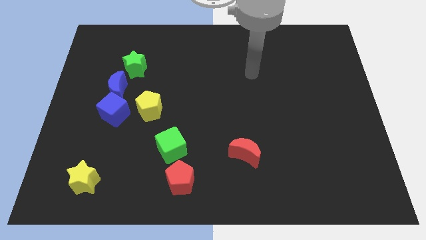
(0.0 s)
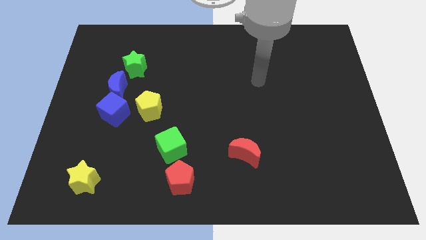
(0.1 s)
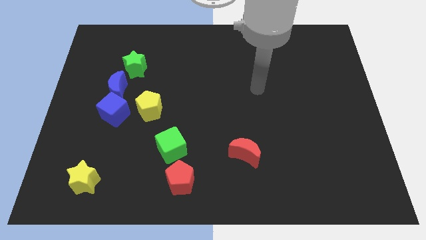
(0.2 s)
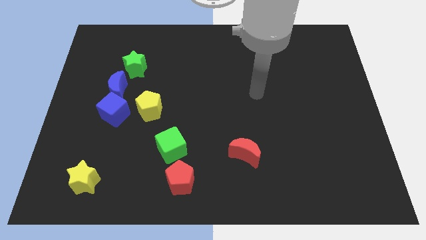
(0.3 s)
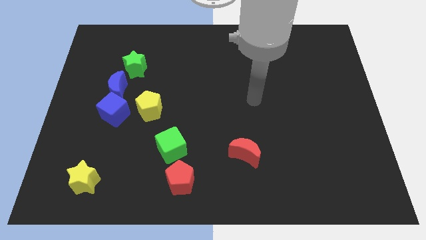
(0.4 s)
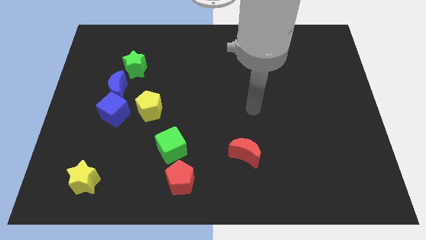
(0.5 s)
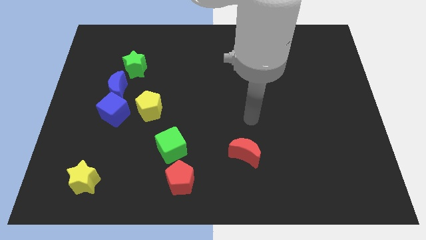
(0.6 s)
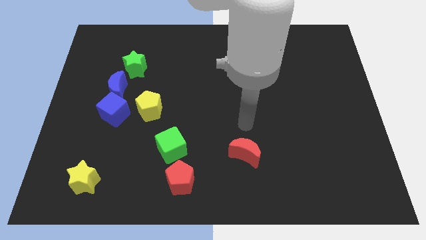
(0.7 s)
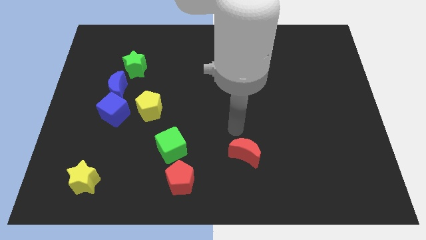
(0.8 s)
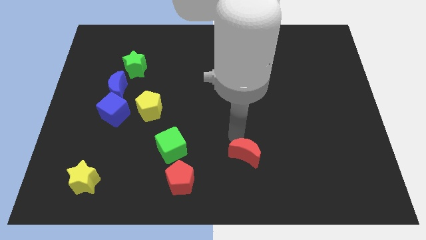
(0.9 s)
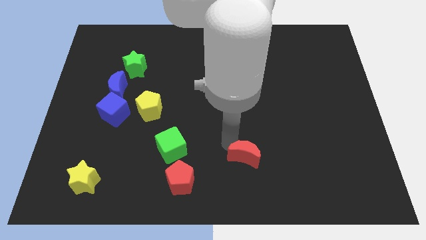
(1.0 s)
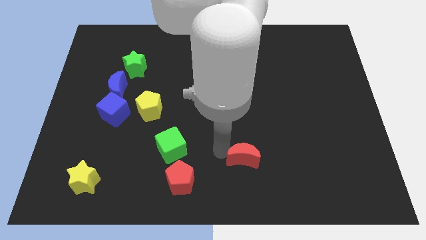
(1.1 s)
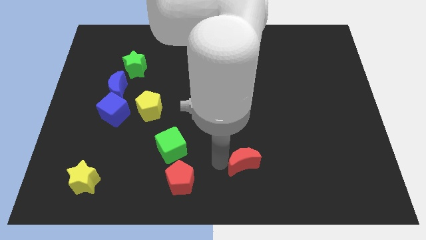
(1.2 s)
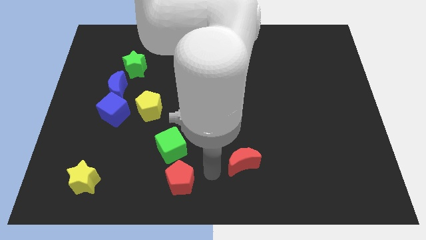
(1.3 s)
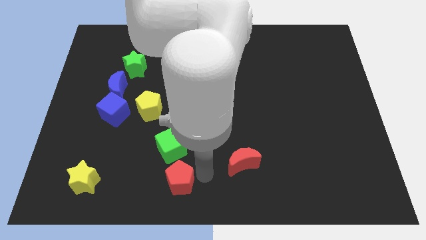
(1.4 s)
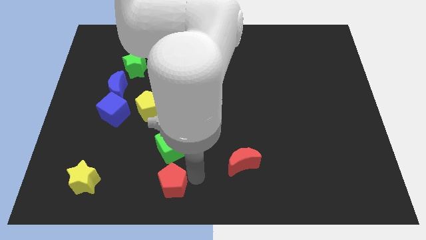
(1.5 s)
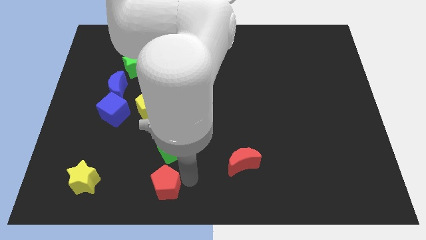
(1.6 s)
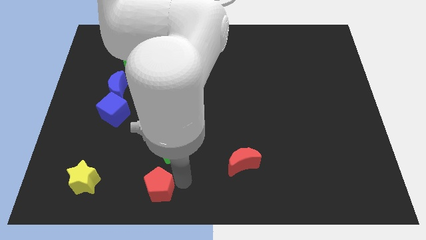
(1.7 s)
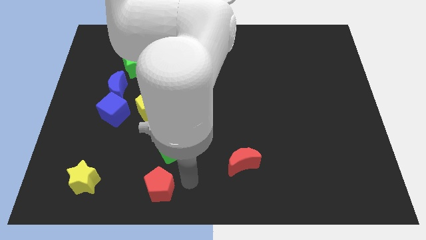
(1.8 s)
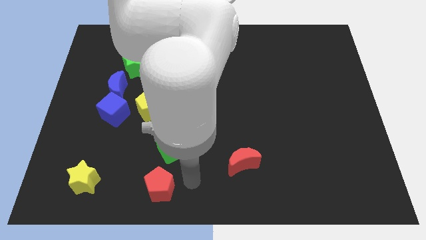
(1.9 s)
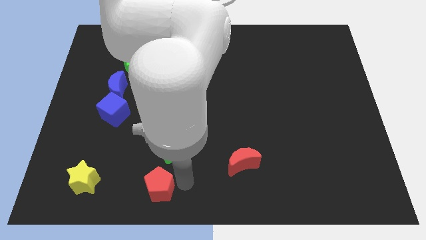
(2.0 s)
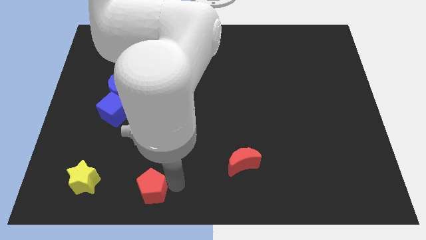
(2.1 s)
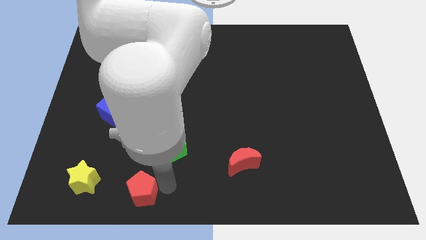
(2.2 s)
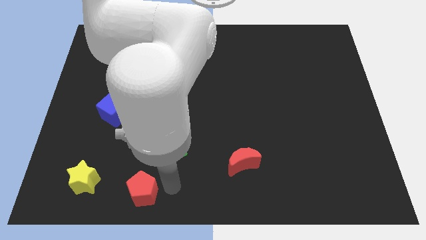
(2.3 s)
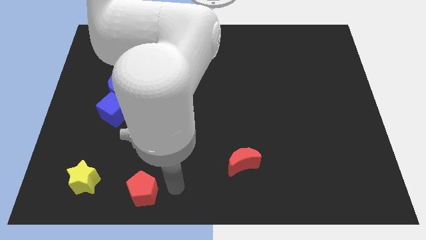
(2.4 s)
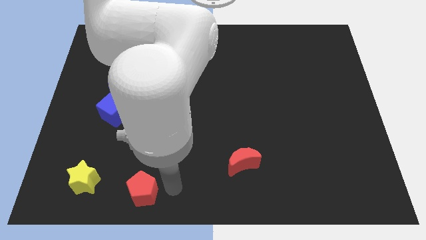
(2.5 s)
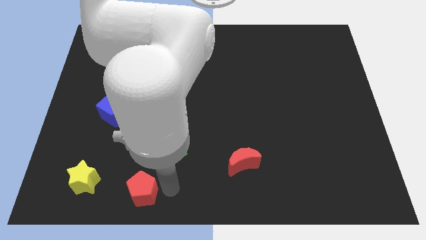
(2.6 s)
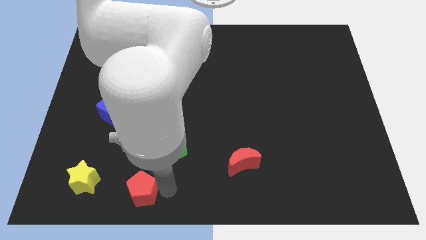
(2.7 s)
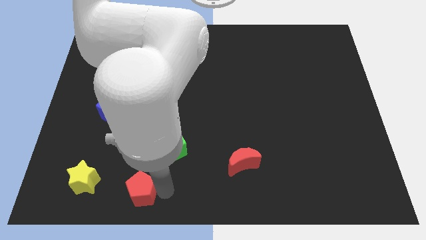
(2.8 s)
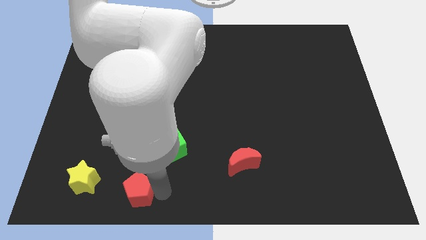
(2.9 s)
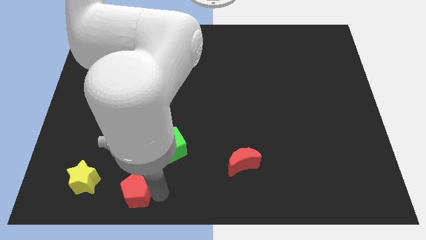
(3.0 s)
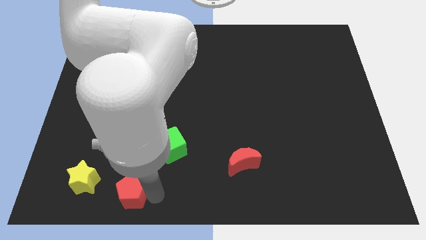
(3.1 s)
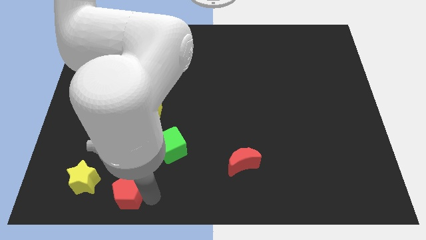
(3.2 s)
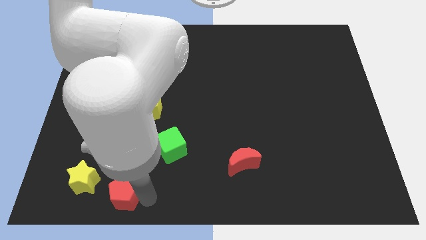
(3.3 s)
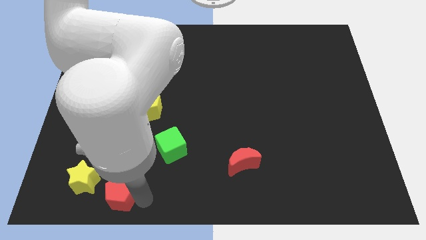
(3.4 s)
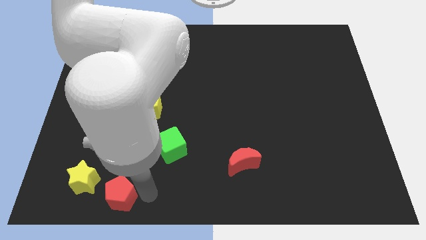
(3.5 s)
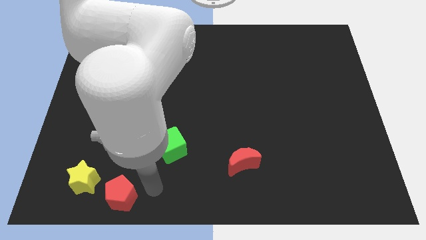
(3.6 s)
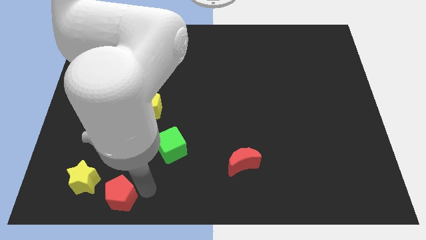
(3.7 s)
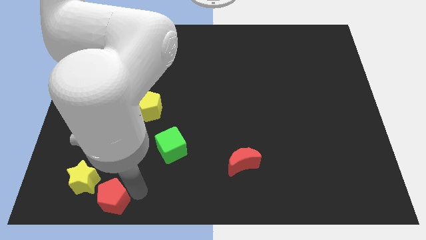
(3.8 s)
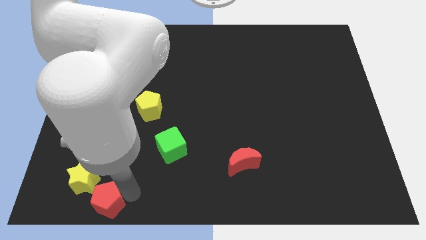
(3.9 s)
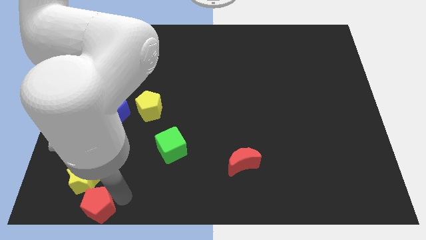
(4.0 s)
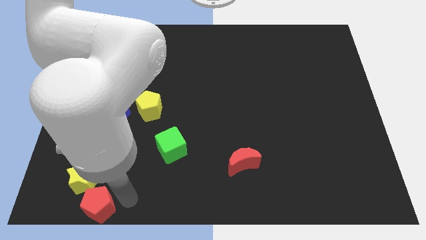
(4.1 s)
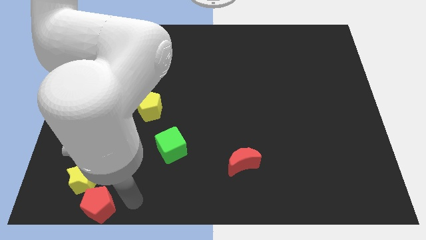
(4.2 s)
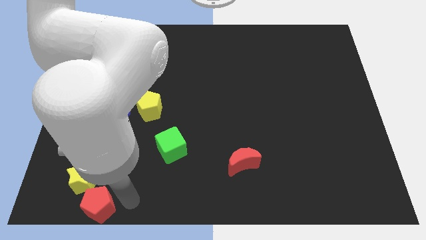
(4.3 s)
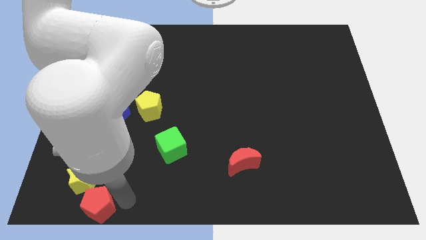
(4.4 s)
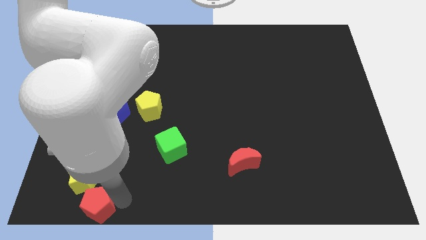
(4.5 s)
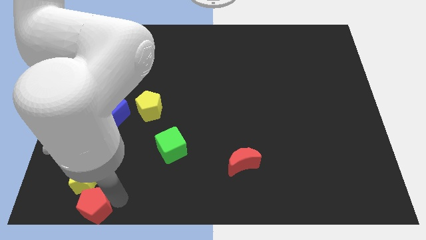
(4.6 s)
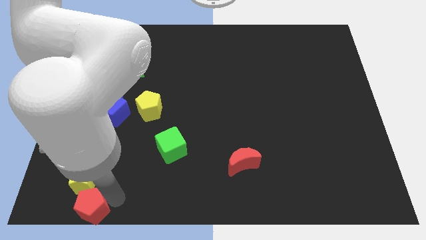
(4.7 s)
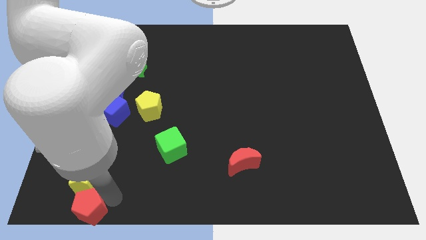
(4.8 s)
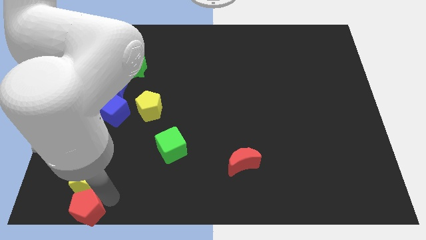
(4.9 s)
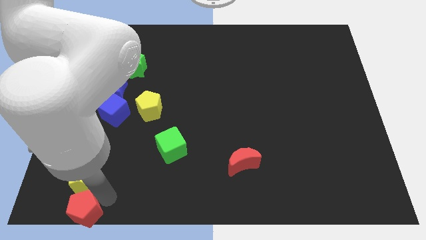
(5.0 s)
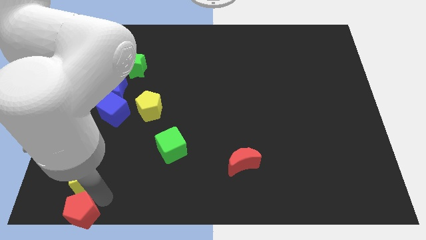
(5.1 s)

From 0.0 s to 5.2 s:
move the red pentagon to the bottom left of the board

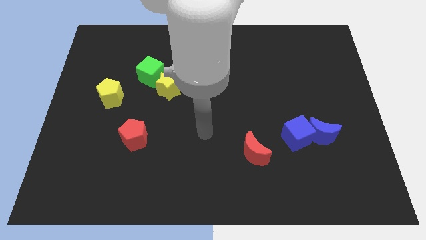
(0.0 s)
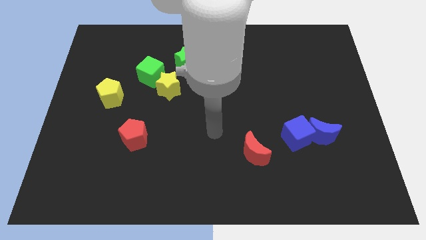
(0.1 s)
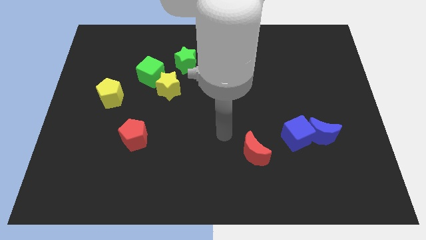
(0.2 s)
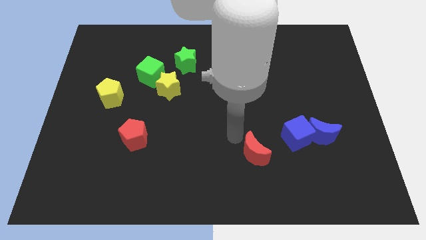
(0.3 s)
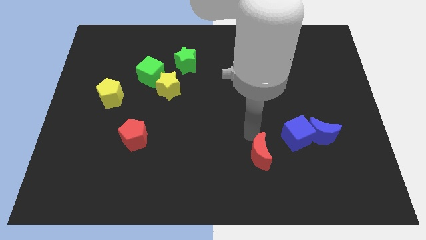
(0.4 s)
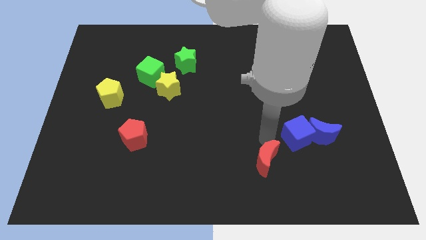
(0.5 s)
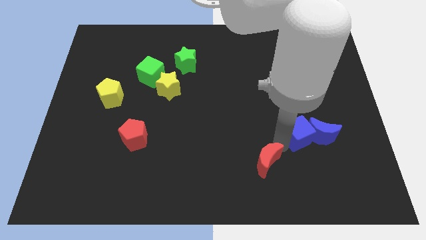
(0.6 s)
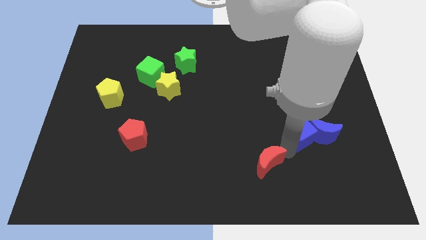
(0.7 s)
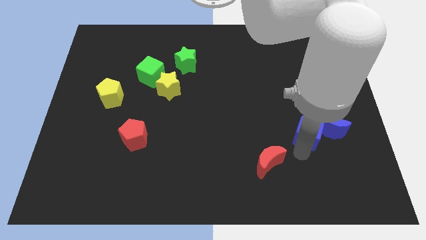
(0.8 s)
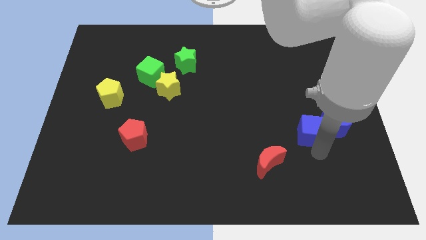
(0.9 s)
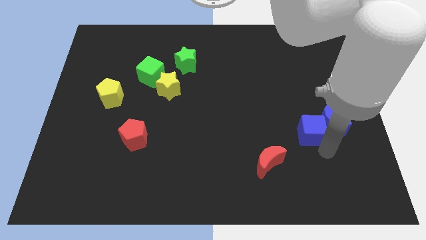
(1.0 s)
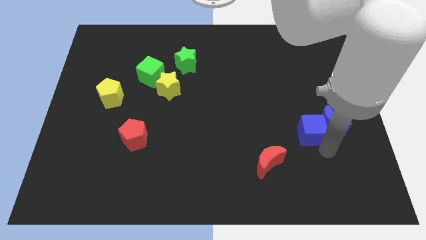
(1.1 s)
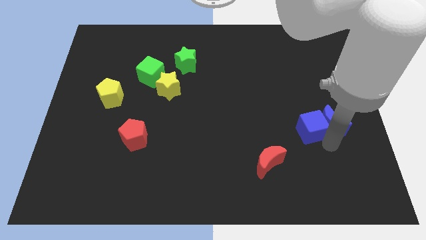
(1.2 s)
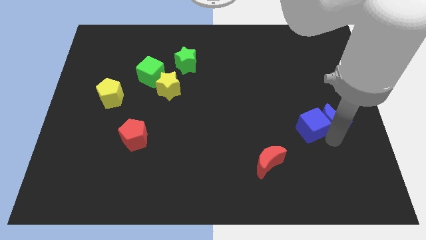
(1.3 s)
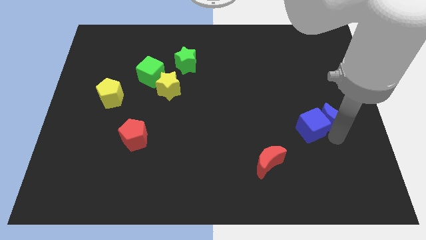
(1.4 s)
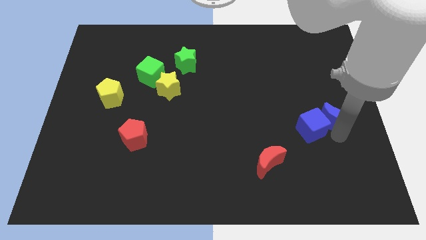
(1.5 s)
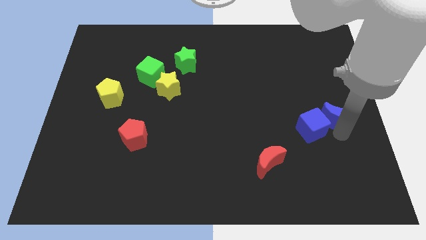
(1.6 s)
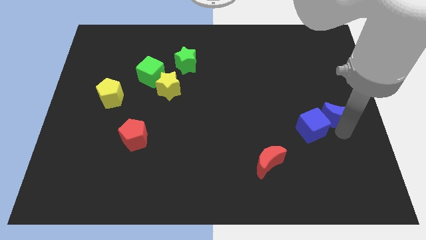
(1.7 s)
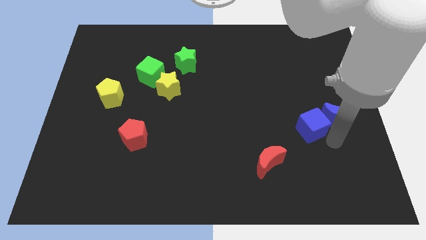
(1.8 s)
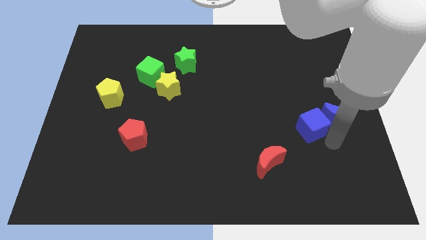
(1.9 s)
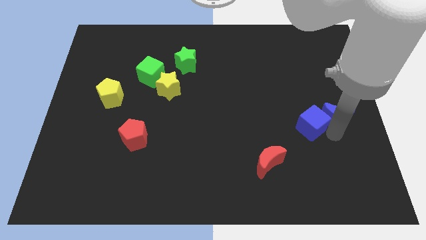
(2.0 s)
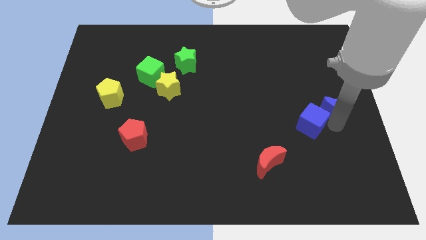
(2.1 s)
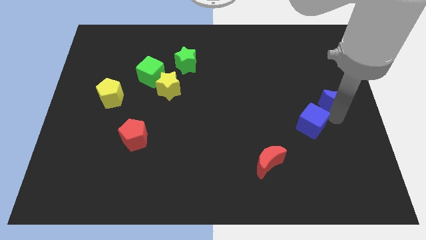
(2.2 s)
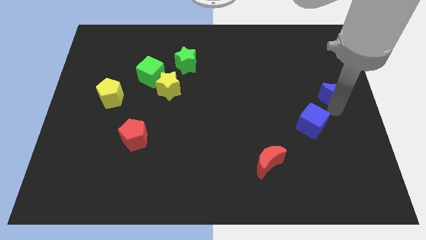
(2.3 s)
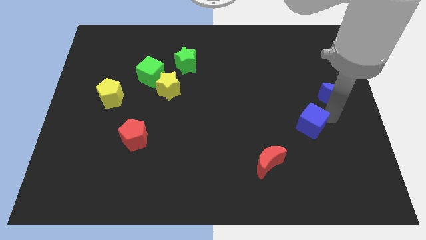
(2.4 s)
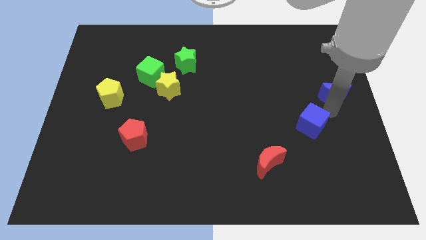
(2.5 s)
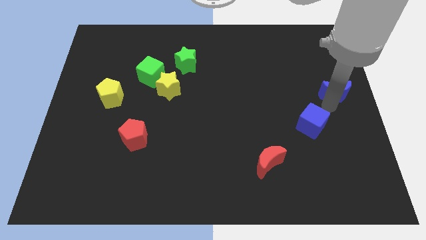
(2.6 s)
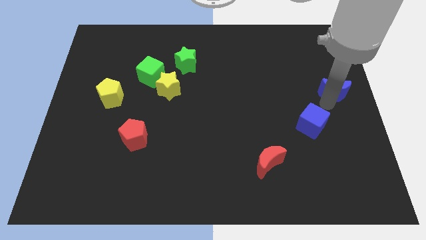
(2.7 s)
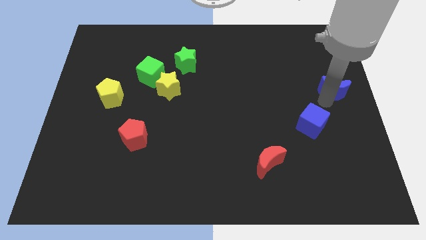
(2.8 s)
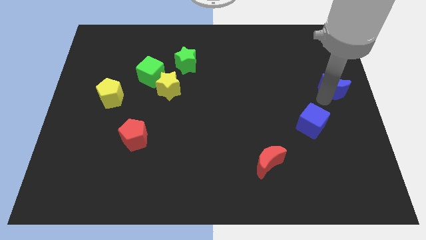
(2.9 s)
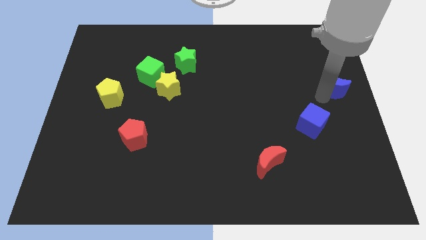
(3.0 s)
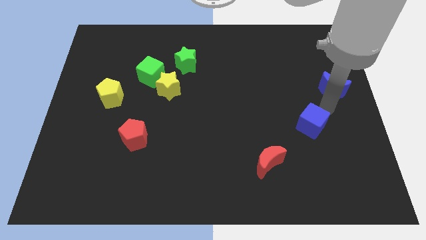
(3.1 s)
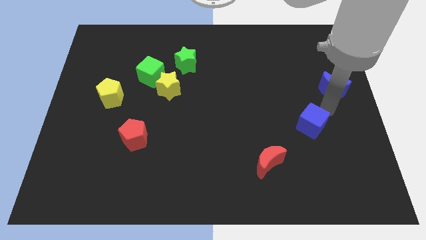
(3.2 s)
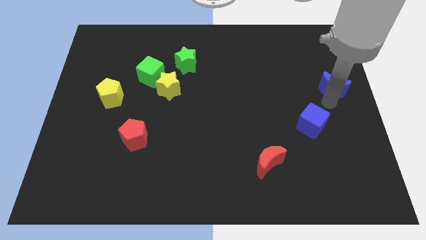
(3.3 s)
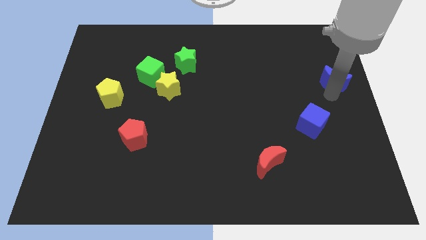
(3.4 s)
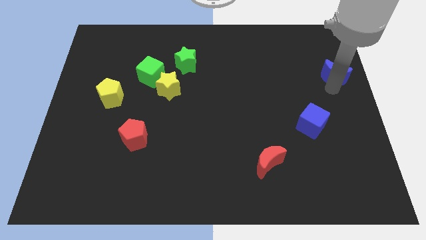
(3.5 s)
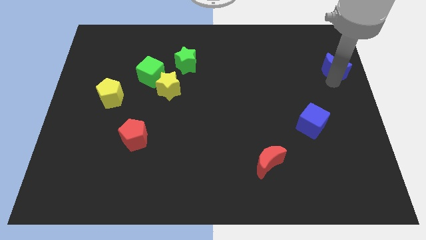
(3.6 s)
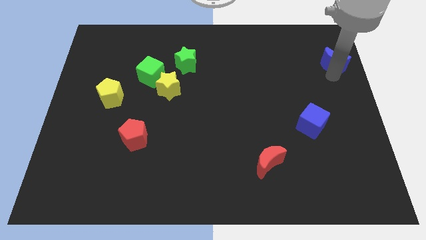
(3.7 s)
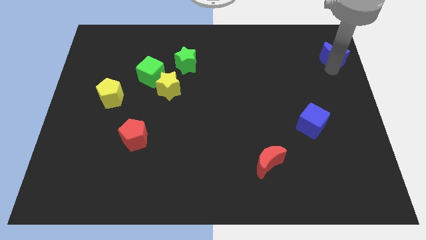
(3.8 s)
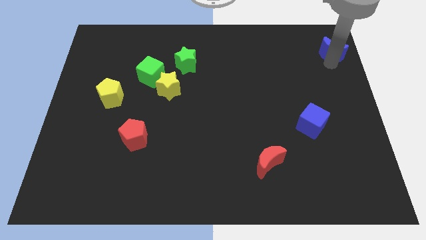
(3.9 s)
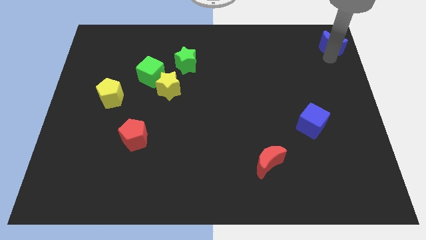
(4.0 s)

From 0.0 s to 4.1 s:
slide the blue moon to the top right corner
